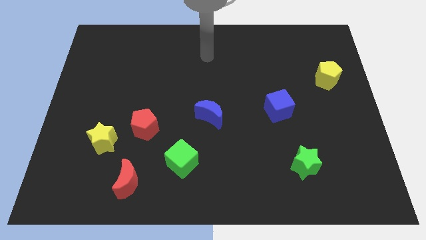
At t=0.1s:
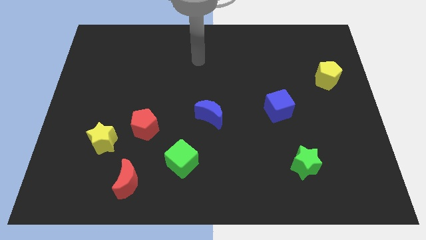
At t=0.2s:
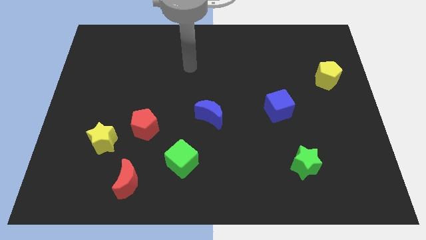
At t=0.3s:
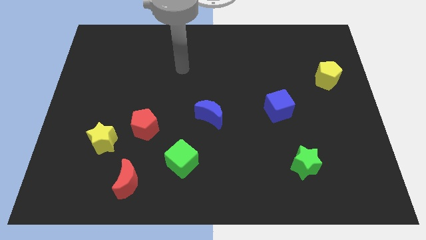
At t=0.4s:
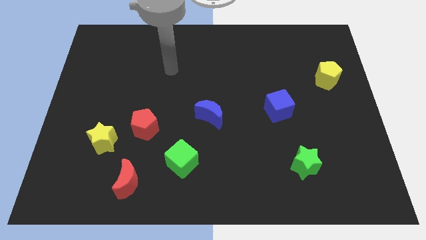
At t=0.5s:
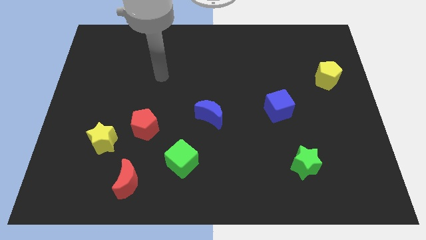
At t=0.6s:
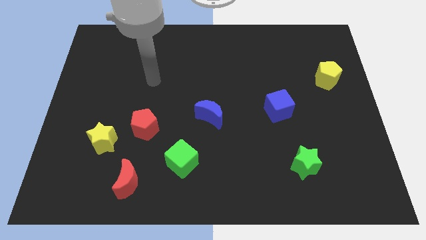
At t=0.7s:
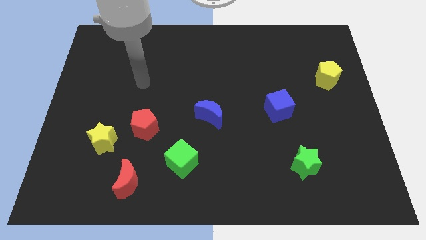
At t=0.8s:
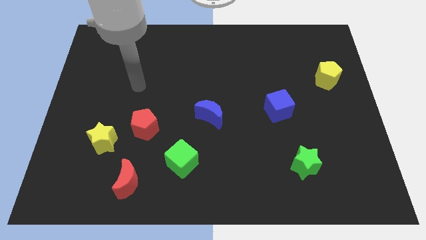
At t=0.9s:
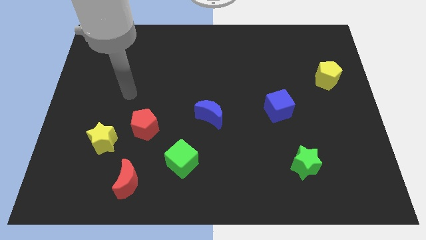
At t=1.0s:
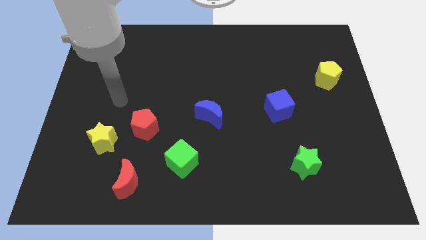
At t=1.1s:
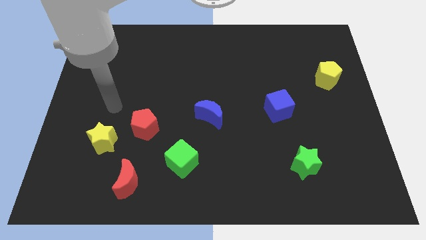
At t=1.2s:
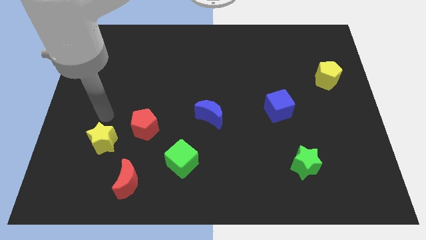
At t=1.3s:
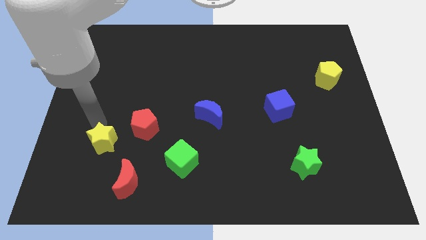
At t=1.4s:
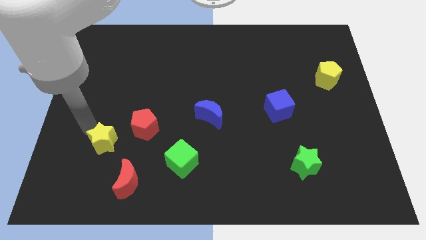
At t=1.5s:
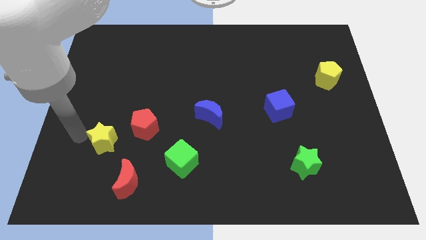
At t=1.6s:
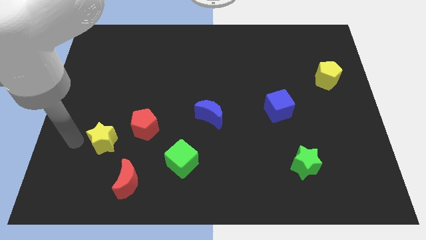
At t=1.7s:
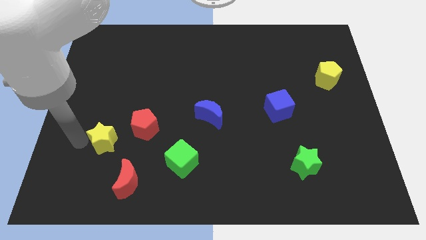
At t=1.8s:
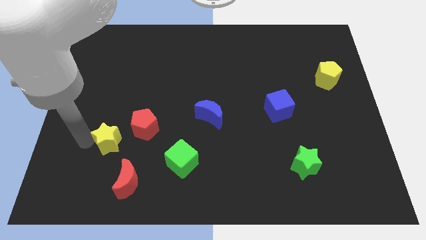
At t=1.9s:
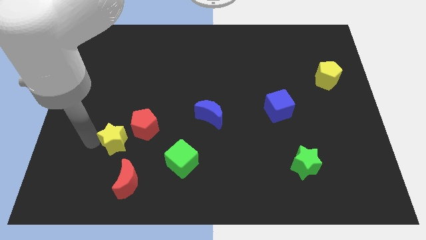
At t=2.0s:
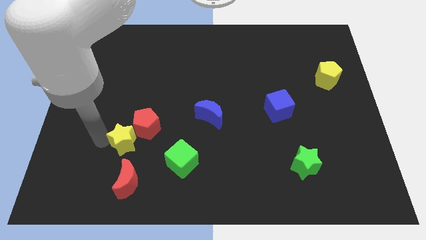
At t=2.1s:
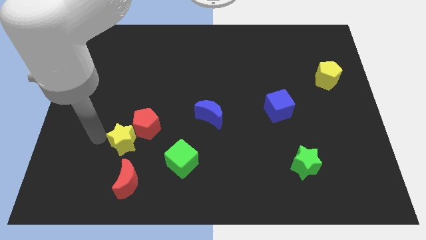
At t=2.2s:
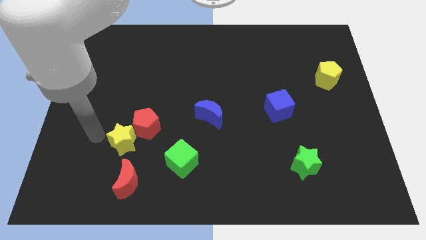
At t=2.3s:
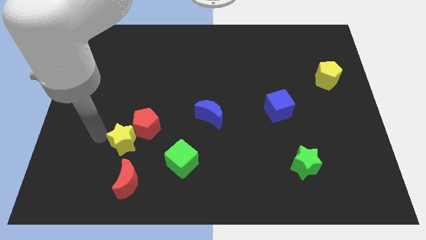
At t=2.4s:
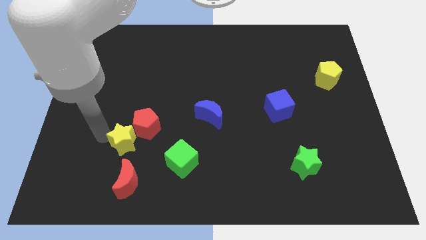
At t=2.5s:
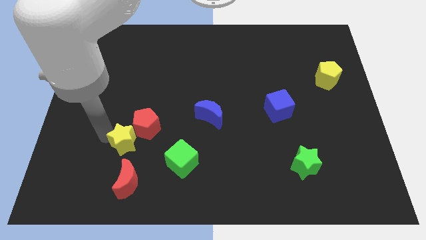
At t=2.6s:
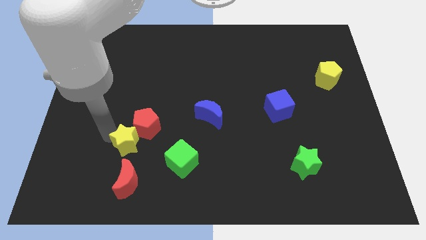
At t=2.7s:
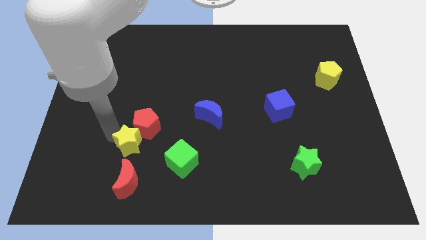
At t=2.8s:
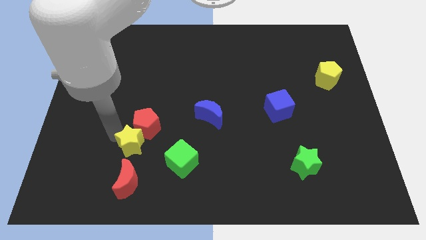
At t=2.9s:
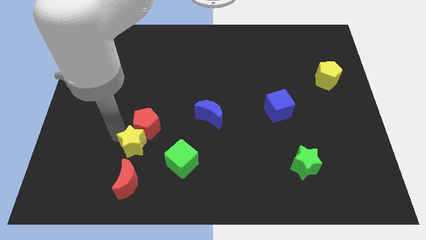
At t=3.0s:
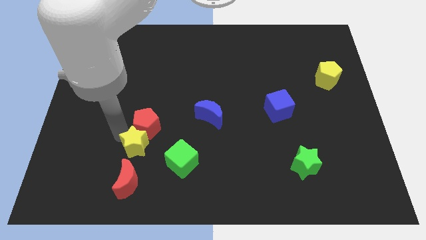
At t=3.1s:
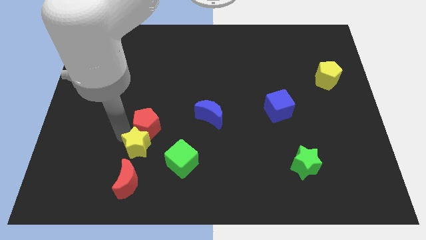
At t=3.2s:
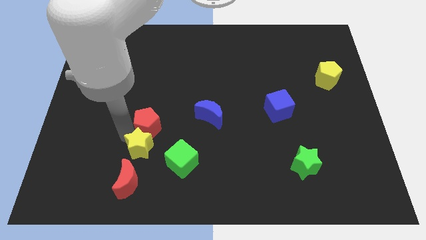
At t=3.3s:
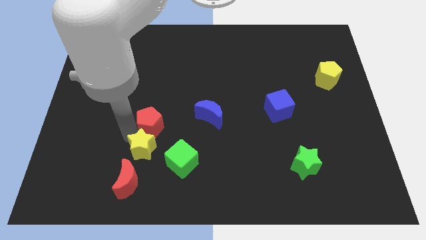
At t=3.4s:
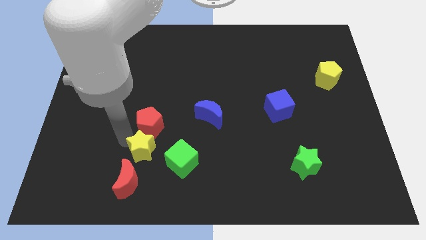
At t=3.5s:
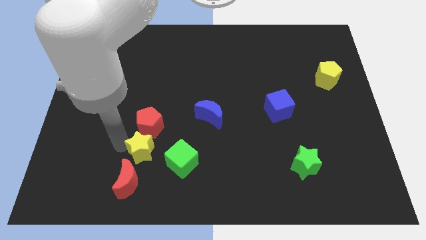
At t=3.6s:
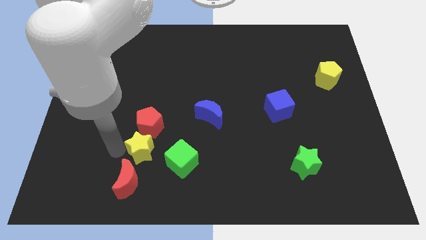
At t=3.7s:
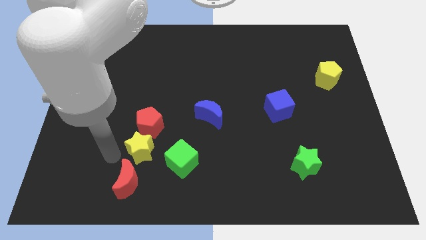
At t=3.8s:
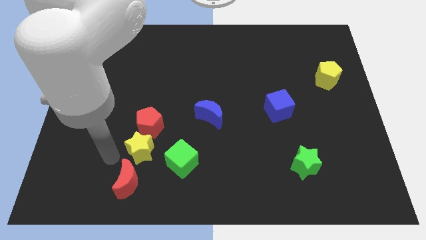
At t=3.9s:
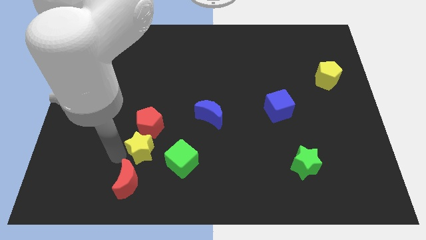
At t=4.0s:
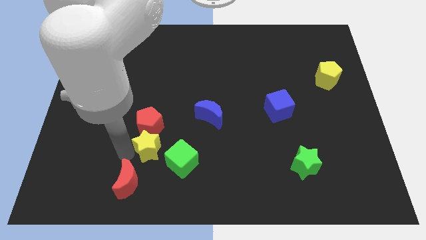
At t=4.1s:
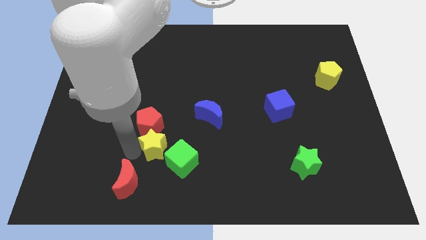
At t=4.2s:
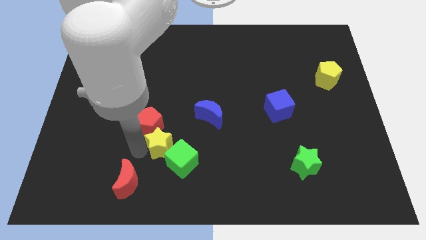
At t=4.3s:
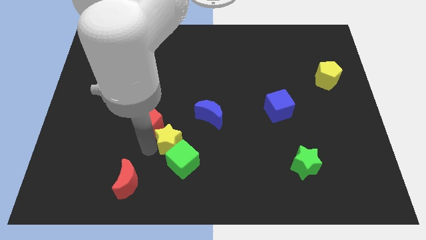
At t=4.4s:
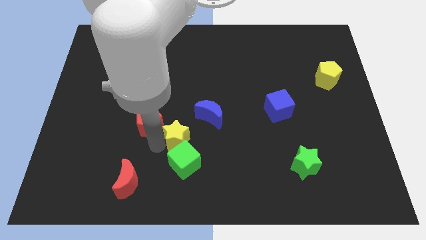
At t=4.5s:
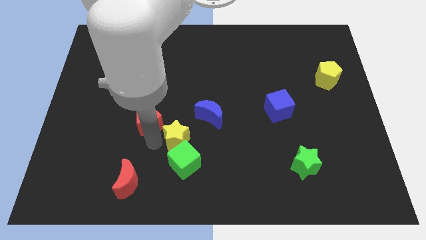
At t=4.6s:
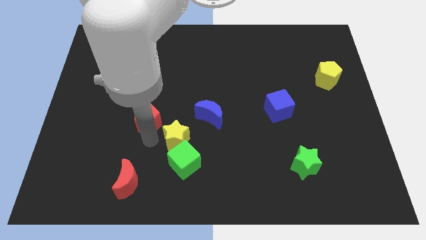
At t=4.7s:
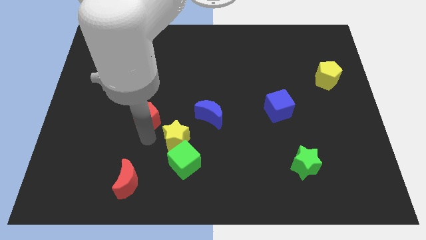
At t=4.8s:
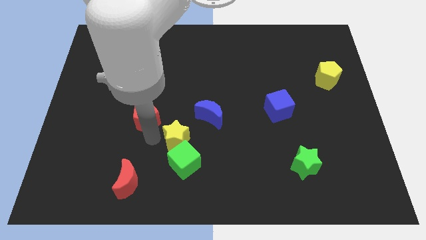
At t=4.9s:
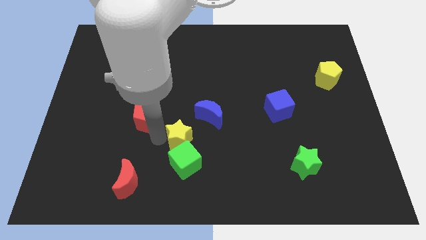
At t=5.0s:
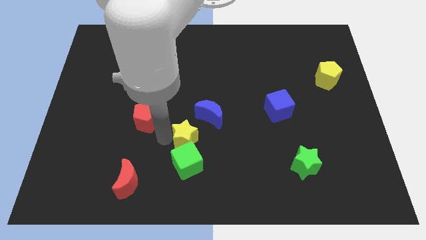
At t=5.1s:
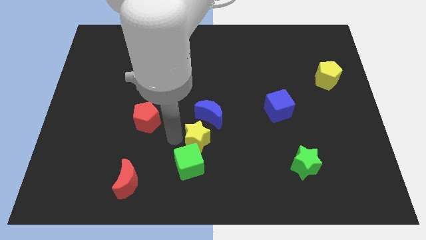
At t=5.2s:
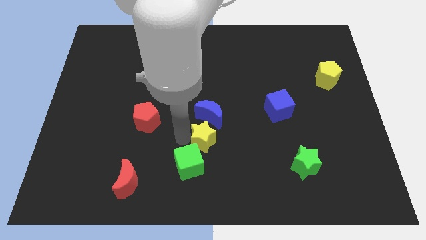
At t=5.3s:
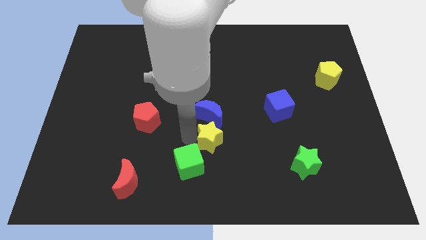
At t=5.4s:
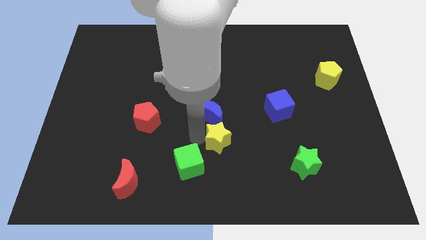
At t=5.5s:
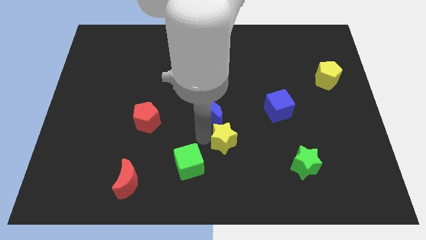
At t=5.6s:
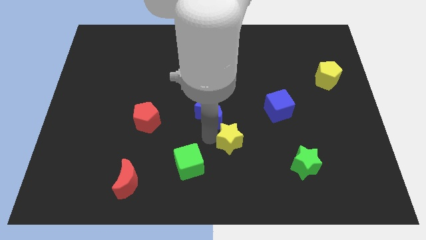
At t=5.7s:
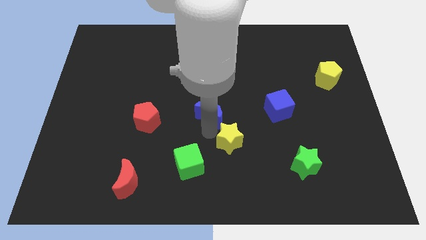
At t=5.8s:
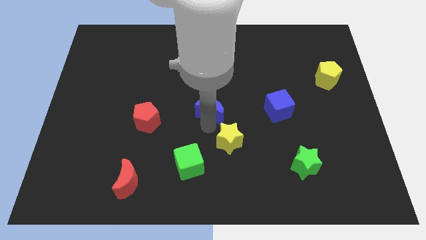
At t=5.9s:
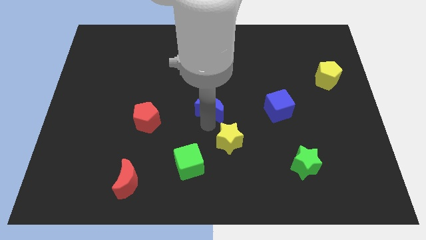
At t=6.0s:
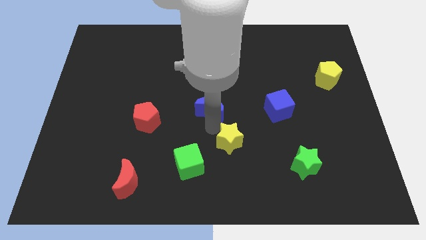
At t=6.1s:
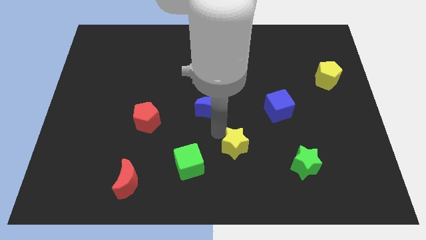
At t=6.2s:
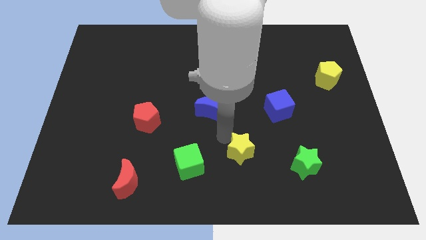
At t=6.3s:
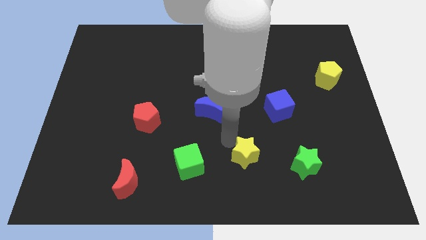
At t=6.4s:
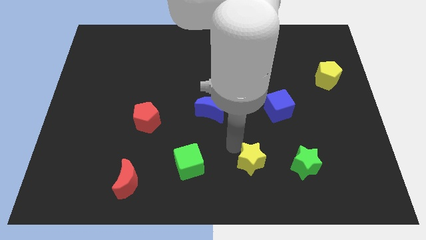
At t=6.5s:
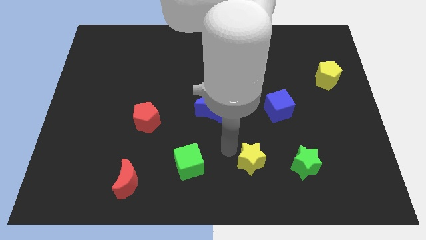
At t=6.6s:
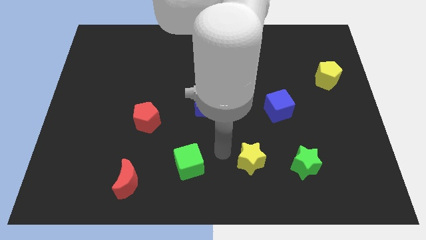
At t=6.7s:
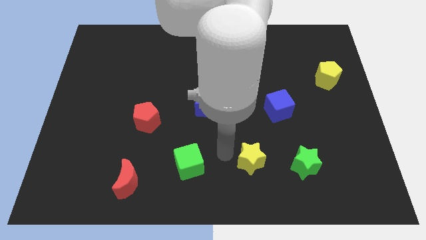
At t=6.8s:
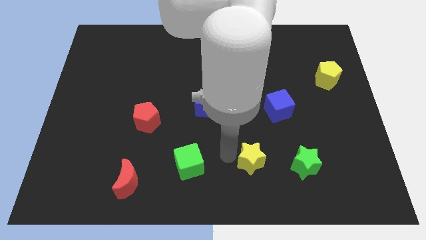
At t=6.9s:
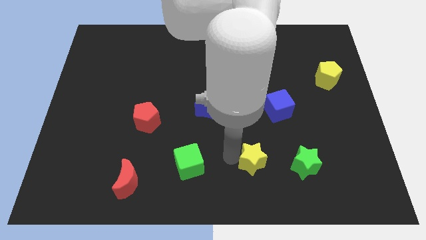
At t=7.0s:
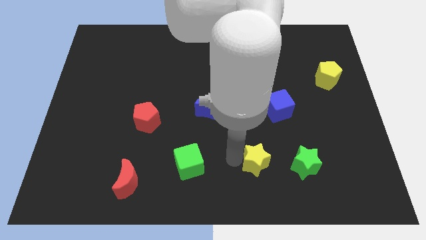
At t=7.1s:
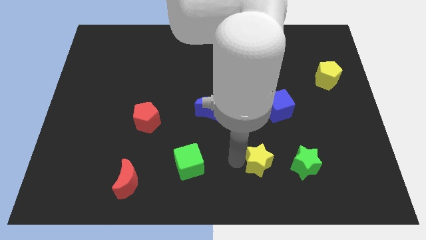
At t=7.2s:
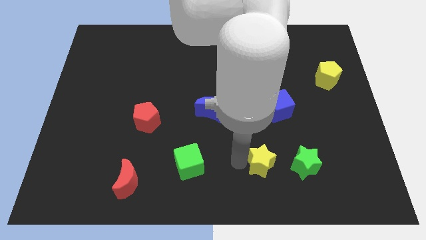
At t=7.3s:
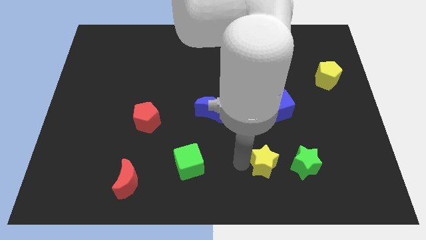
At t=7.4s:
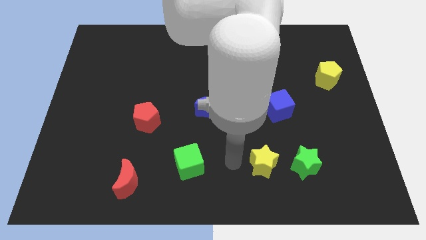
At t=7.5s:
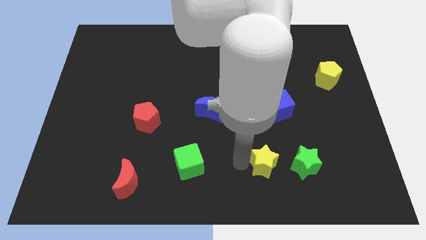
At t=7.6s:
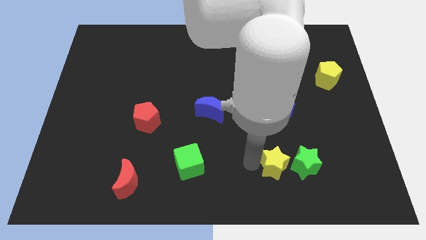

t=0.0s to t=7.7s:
slide the yellow star to the green star
